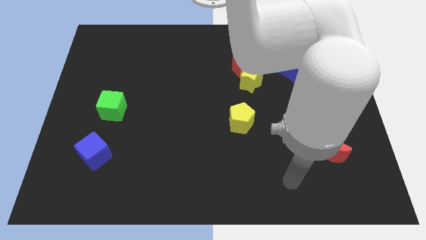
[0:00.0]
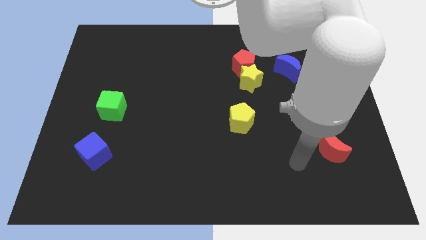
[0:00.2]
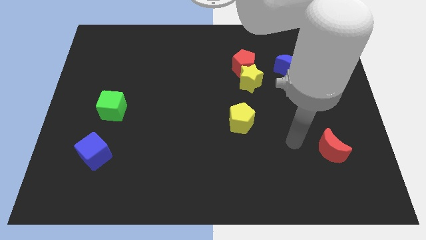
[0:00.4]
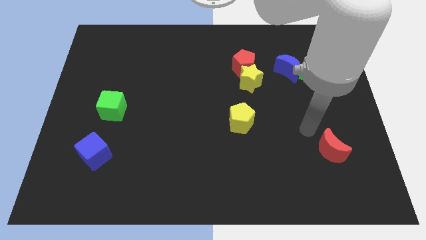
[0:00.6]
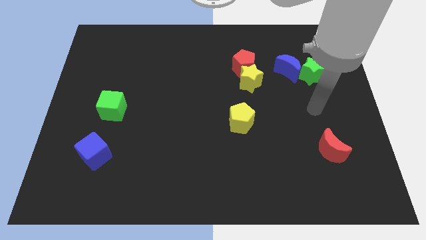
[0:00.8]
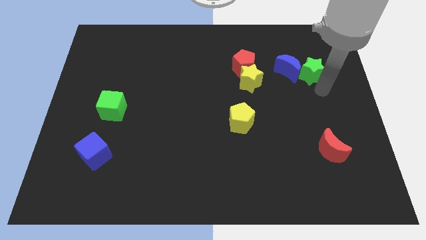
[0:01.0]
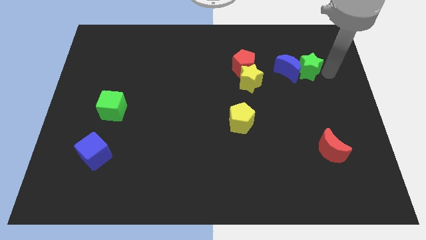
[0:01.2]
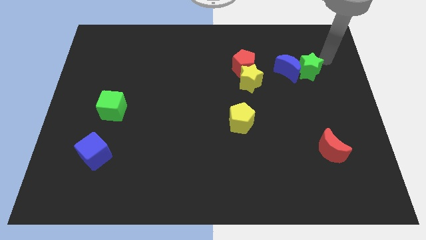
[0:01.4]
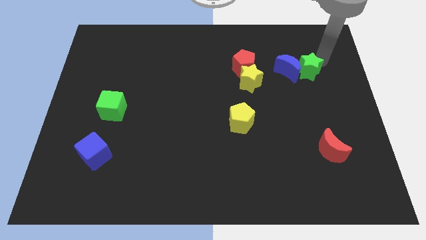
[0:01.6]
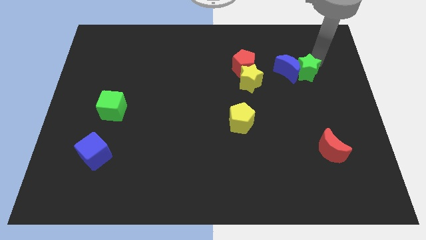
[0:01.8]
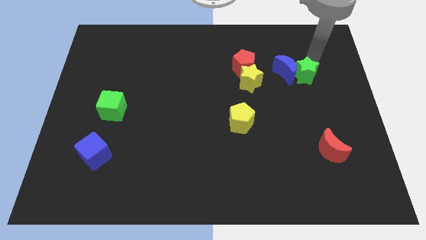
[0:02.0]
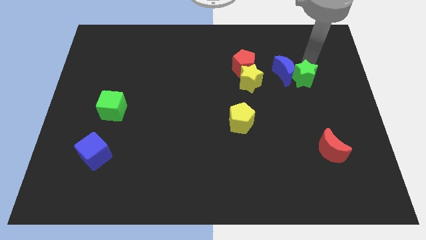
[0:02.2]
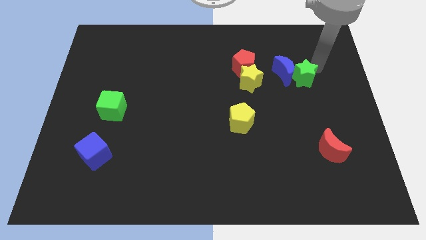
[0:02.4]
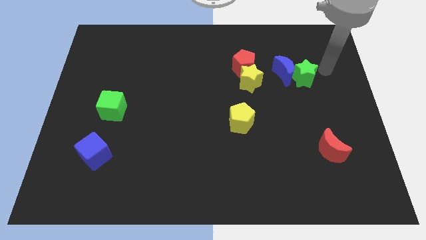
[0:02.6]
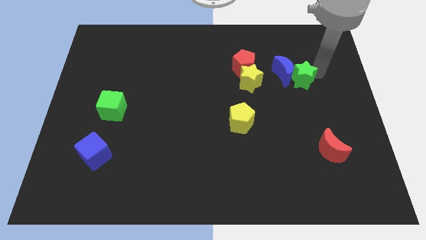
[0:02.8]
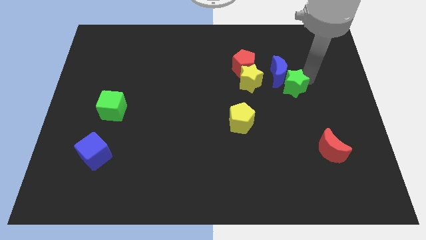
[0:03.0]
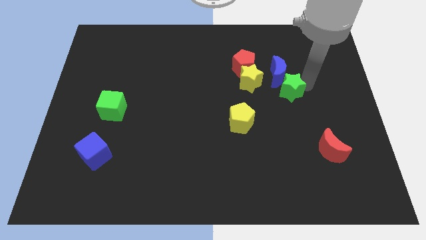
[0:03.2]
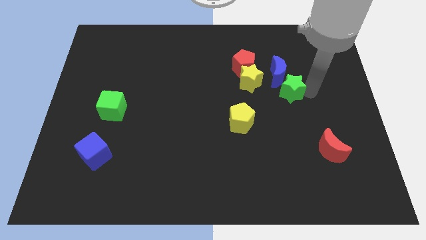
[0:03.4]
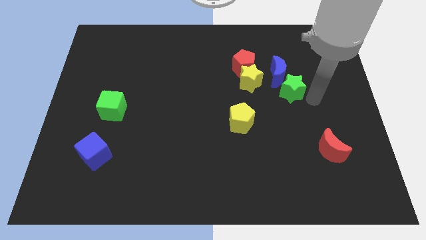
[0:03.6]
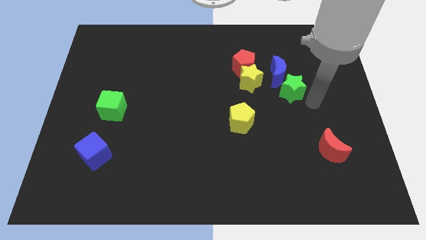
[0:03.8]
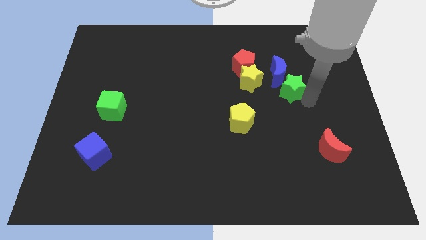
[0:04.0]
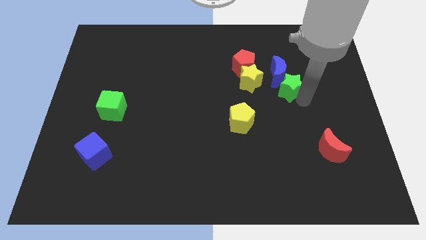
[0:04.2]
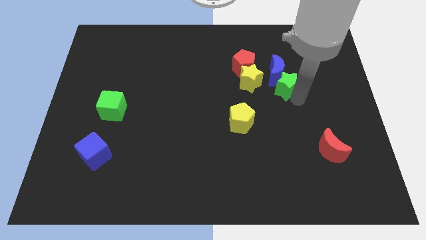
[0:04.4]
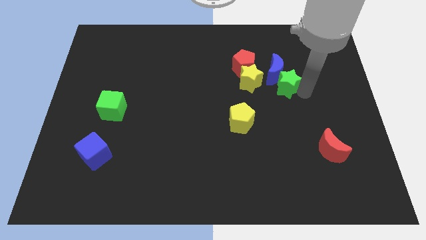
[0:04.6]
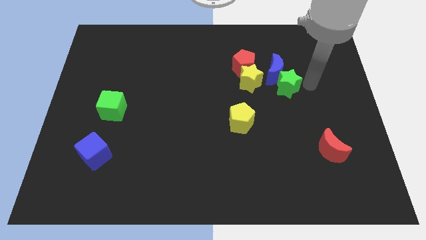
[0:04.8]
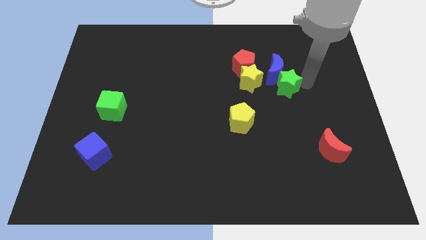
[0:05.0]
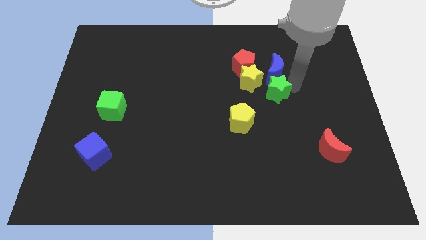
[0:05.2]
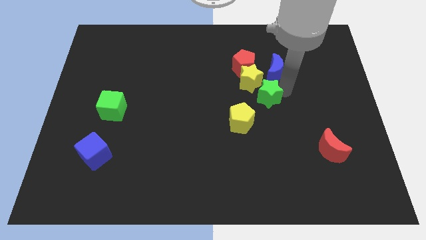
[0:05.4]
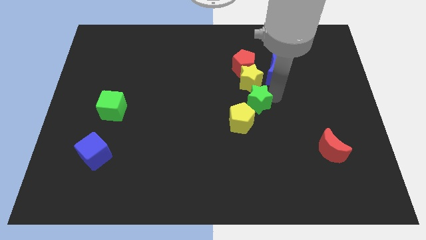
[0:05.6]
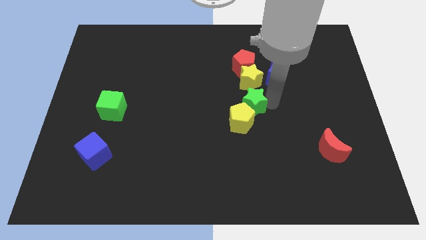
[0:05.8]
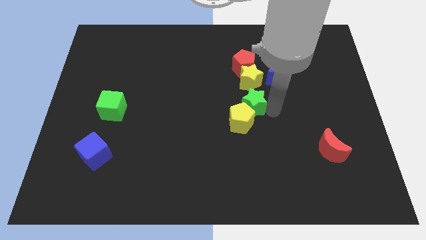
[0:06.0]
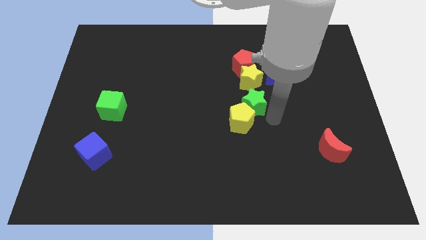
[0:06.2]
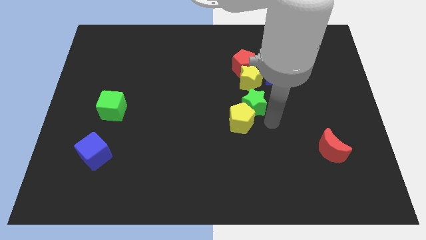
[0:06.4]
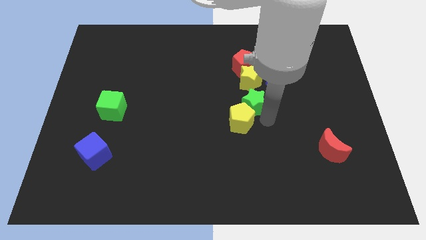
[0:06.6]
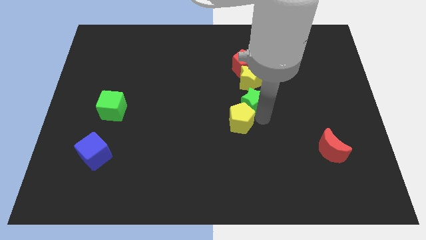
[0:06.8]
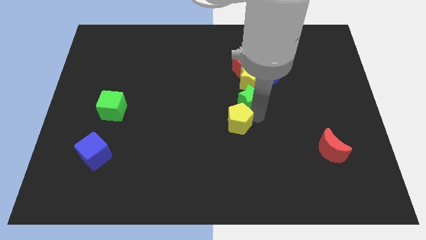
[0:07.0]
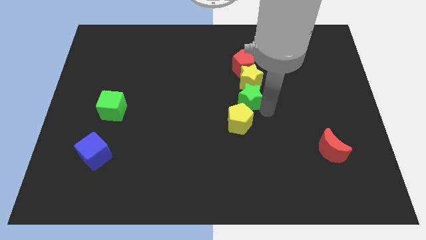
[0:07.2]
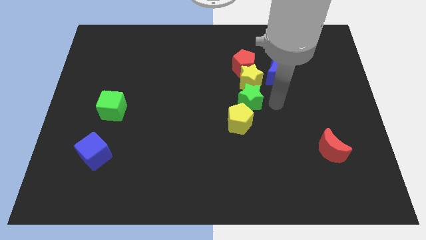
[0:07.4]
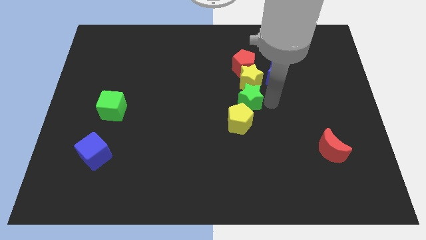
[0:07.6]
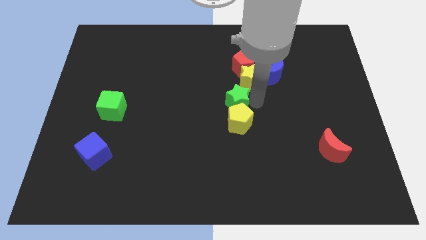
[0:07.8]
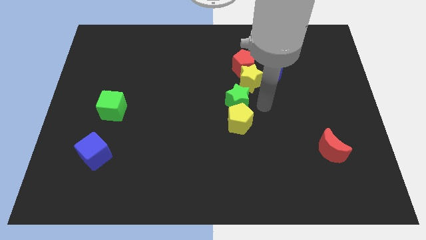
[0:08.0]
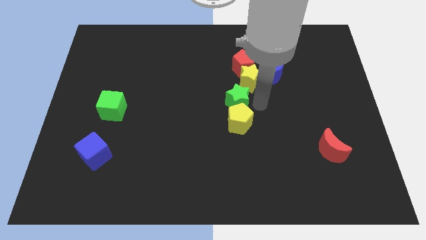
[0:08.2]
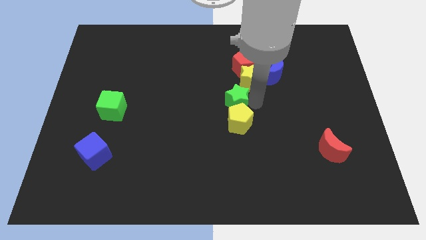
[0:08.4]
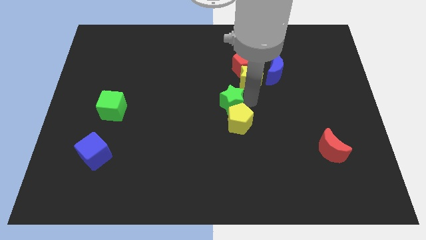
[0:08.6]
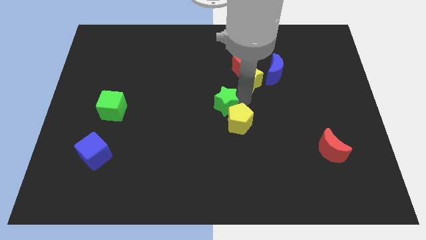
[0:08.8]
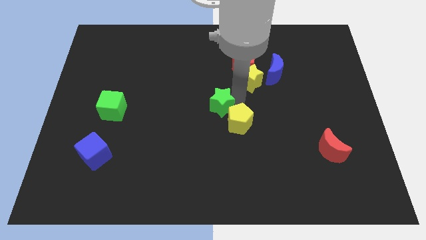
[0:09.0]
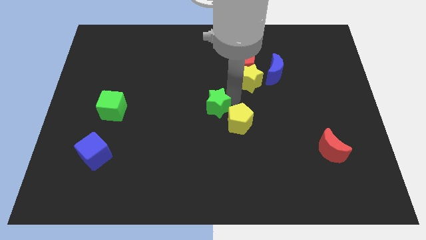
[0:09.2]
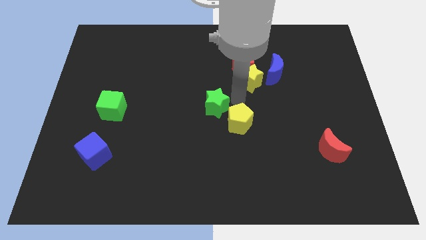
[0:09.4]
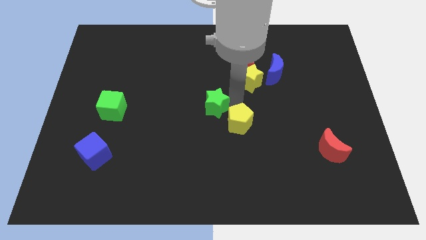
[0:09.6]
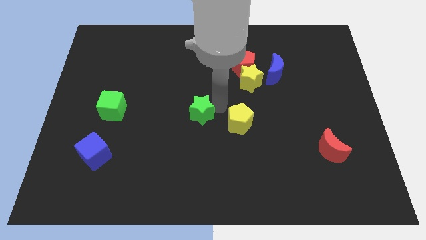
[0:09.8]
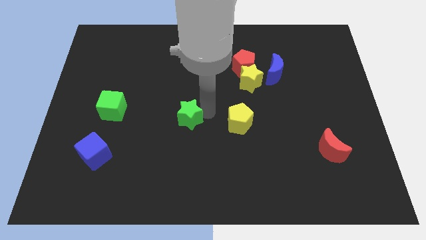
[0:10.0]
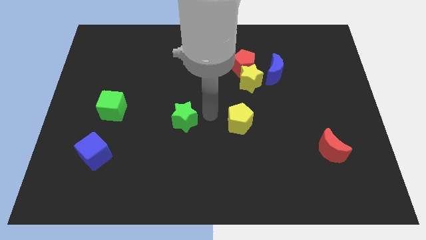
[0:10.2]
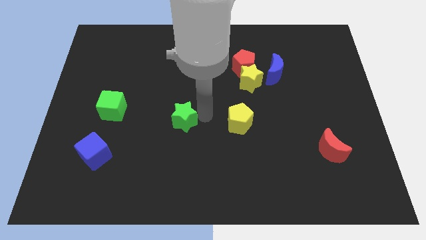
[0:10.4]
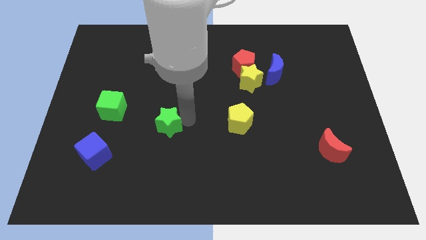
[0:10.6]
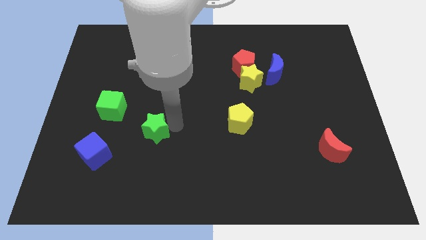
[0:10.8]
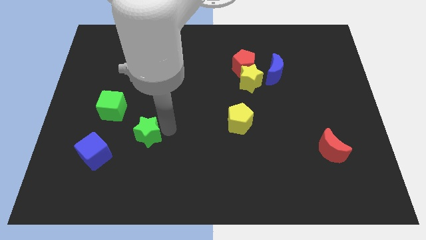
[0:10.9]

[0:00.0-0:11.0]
move the green star diagonally down and to the right of the green cube

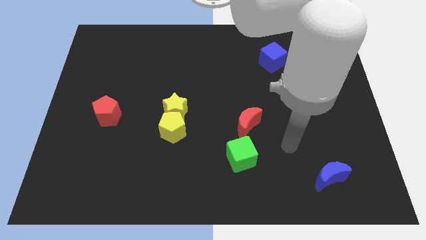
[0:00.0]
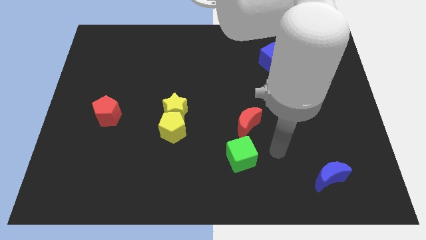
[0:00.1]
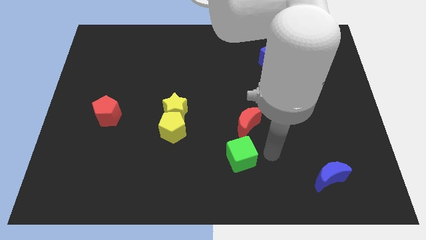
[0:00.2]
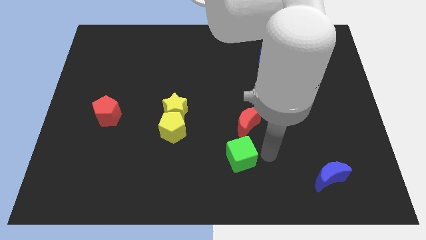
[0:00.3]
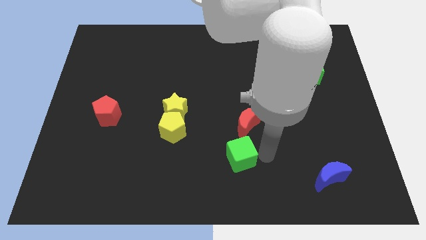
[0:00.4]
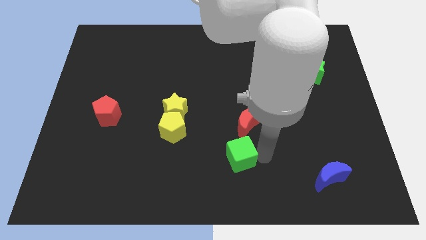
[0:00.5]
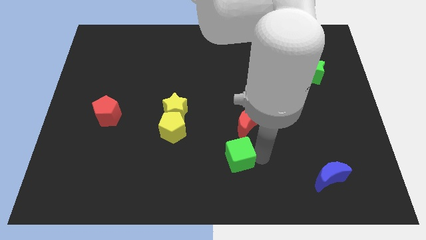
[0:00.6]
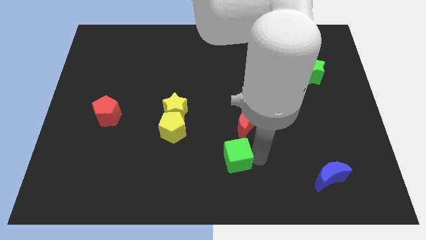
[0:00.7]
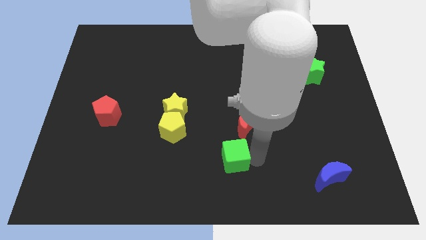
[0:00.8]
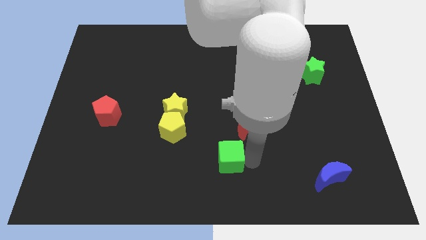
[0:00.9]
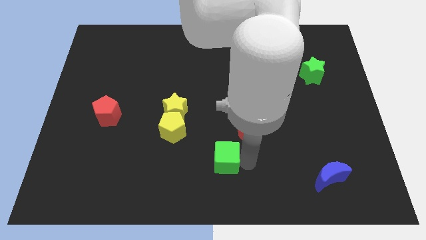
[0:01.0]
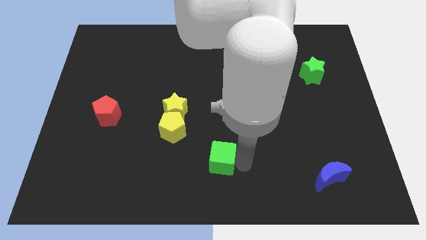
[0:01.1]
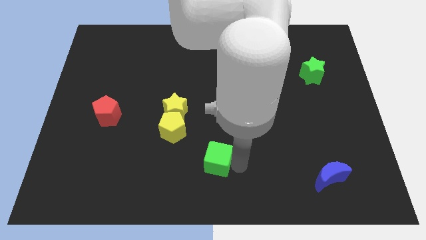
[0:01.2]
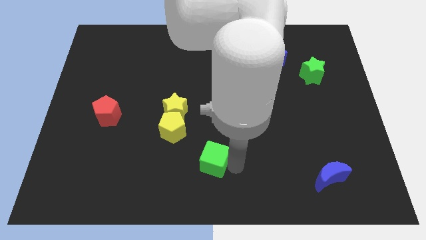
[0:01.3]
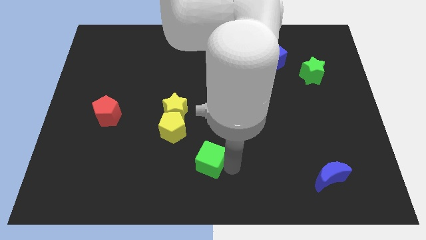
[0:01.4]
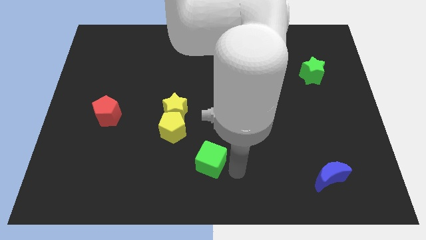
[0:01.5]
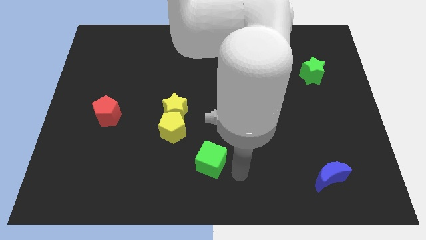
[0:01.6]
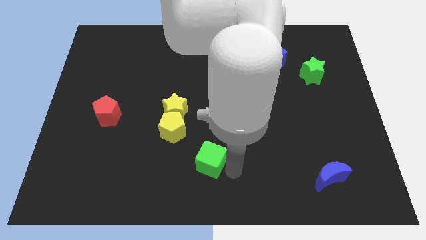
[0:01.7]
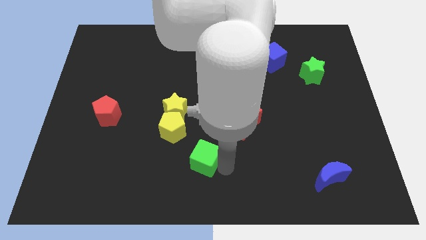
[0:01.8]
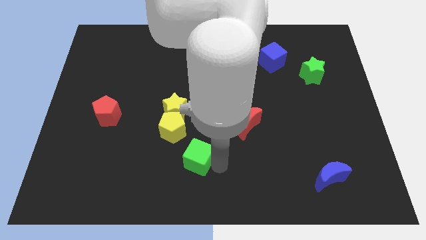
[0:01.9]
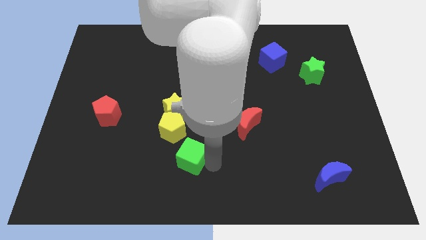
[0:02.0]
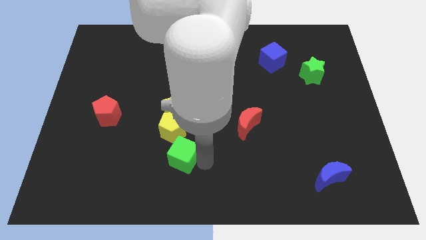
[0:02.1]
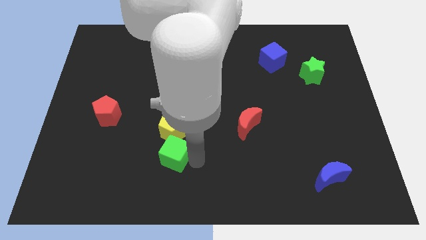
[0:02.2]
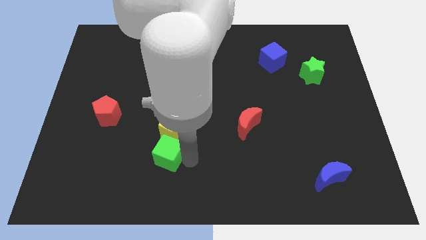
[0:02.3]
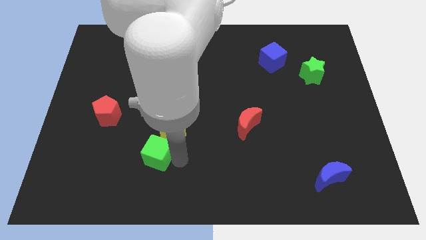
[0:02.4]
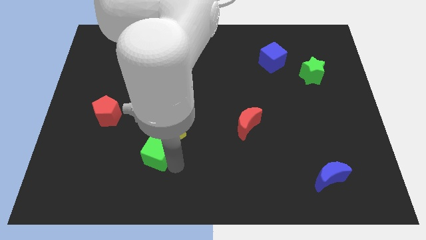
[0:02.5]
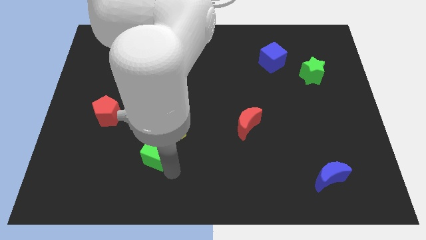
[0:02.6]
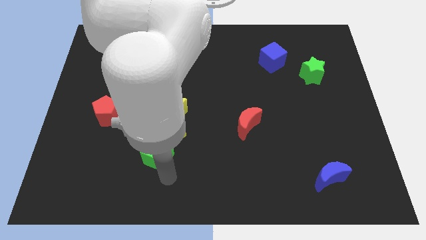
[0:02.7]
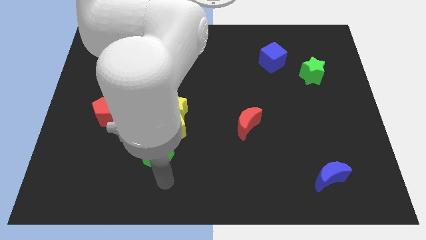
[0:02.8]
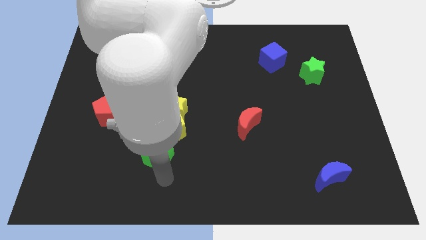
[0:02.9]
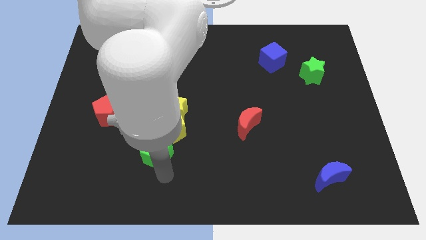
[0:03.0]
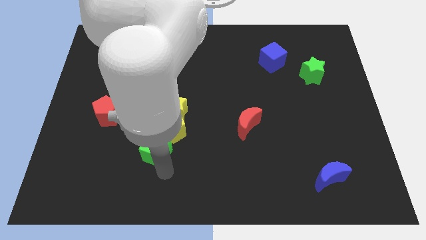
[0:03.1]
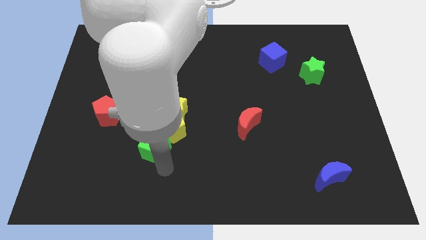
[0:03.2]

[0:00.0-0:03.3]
slide the green cube diagonally down and to the left of the yellow star
